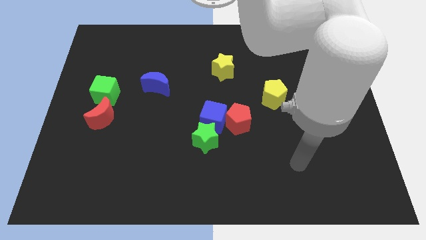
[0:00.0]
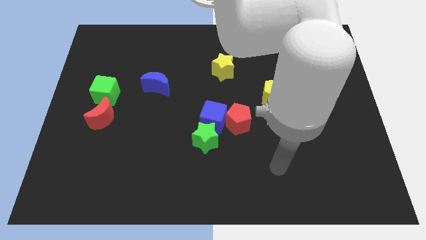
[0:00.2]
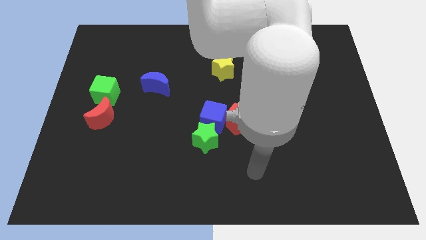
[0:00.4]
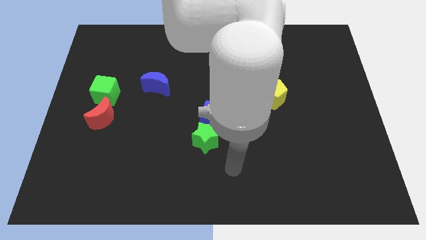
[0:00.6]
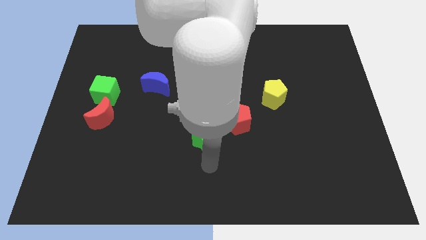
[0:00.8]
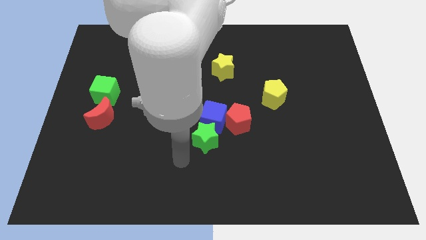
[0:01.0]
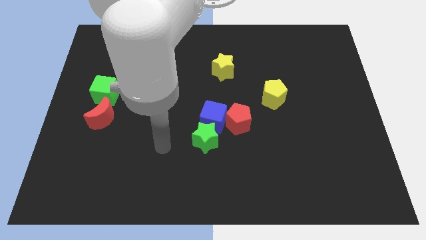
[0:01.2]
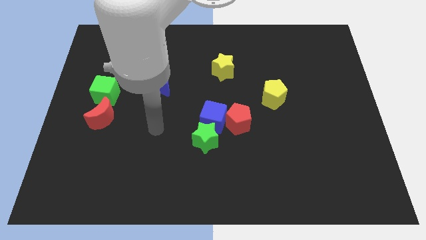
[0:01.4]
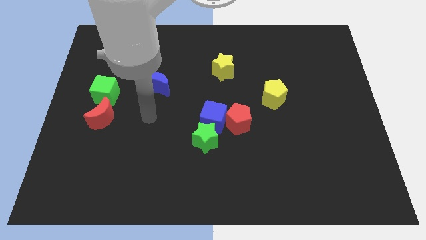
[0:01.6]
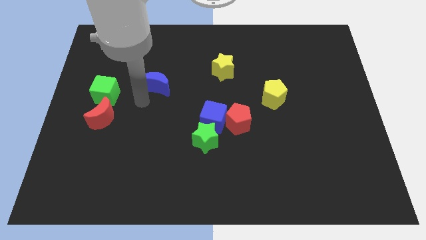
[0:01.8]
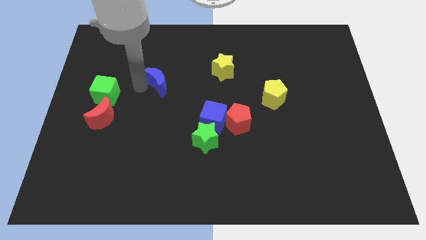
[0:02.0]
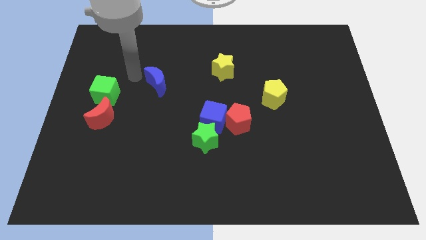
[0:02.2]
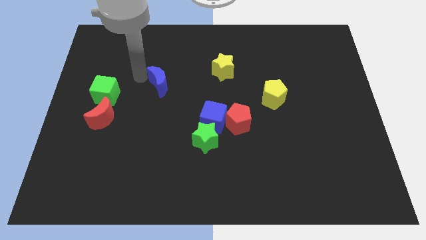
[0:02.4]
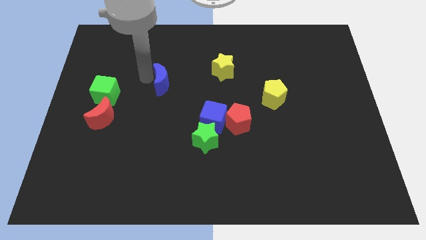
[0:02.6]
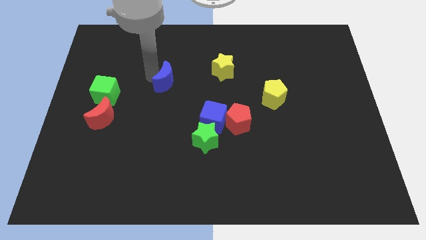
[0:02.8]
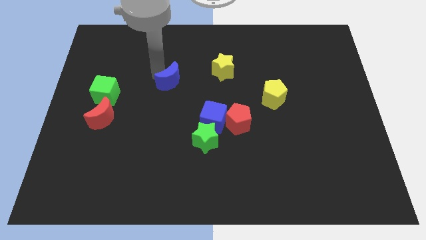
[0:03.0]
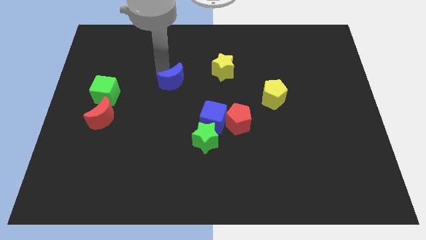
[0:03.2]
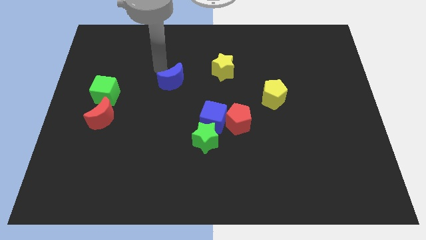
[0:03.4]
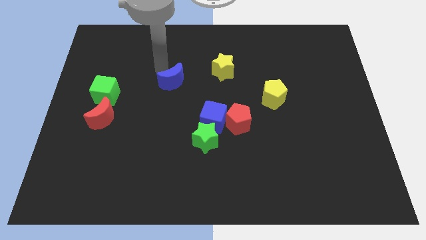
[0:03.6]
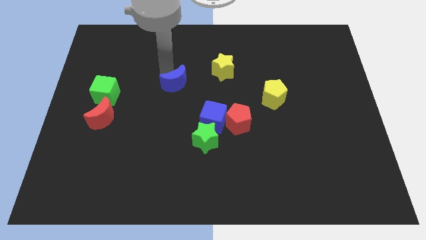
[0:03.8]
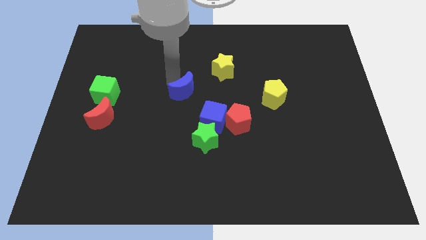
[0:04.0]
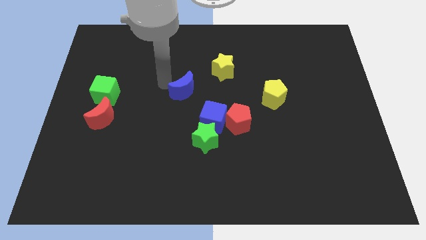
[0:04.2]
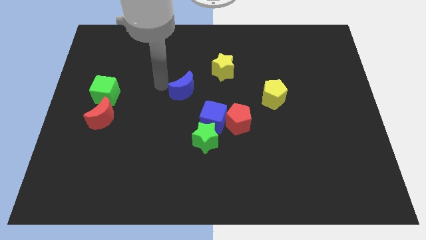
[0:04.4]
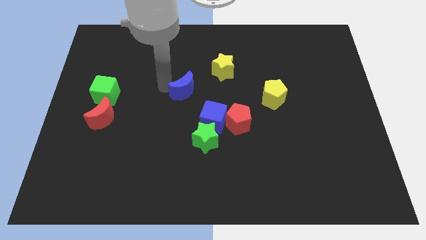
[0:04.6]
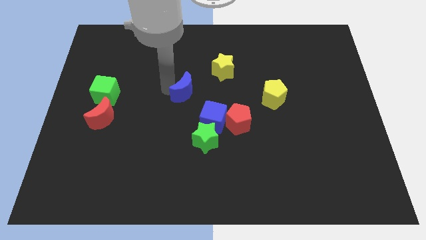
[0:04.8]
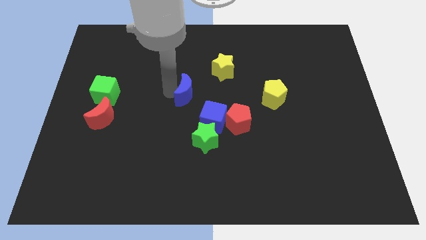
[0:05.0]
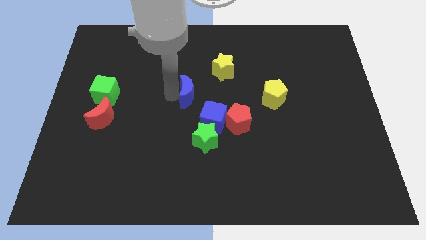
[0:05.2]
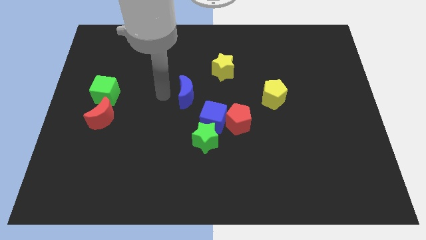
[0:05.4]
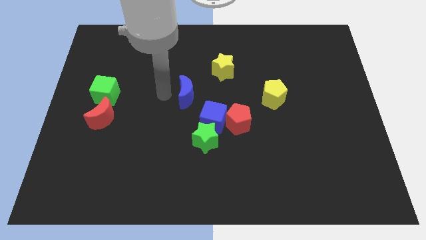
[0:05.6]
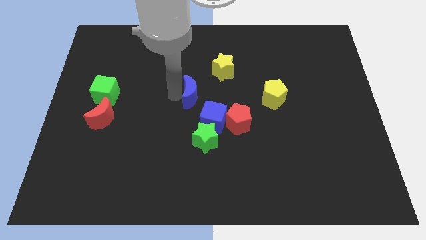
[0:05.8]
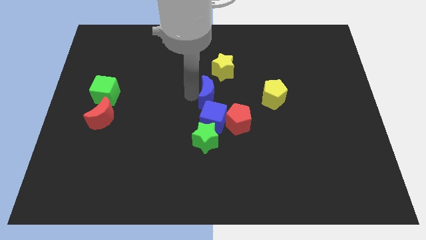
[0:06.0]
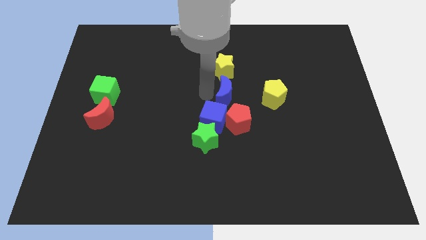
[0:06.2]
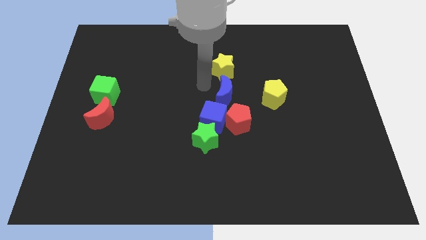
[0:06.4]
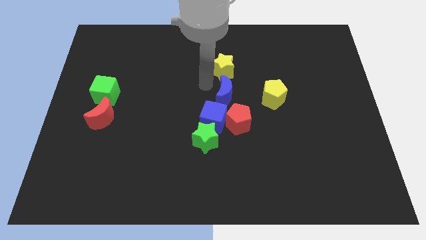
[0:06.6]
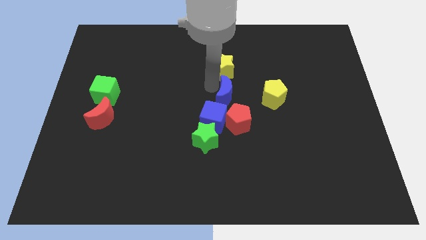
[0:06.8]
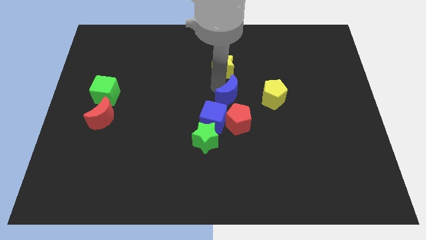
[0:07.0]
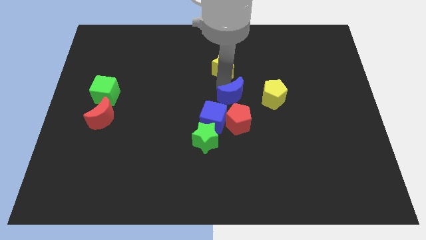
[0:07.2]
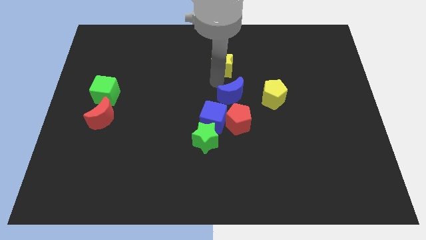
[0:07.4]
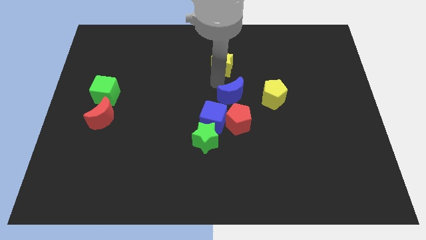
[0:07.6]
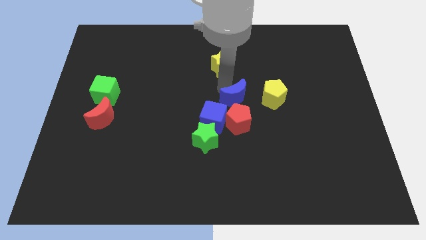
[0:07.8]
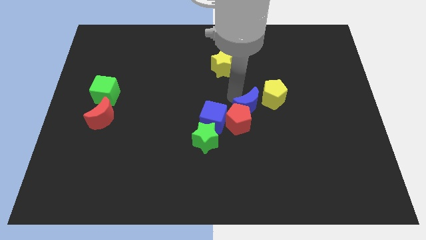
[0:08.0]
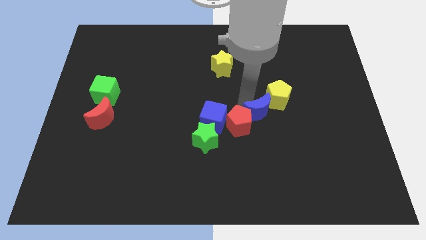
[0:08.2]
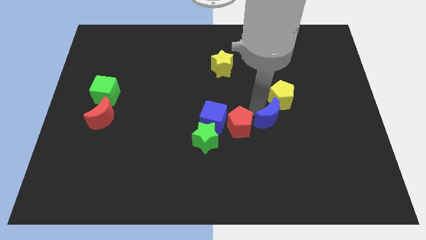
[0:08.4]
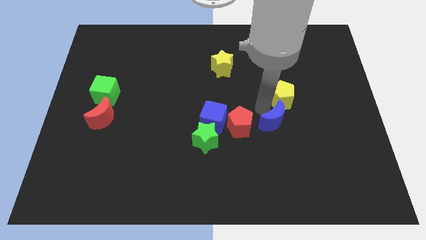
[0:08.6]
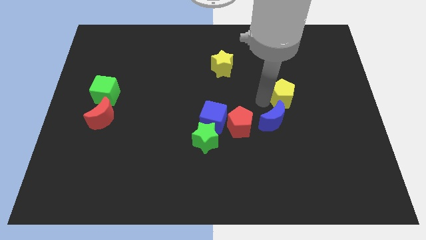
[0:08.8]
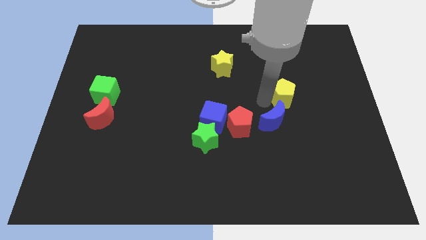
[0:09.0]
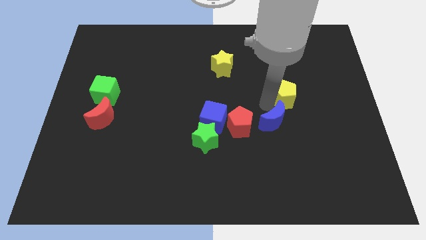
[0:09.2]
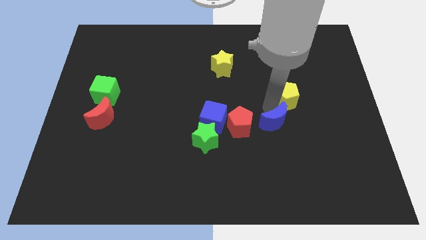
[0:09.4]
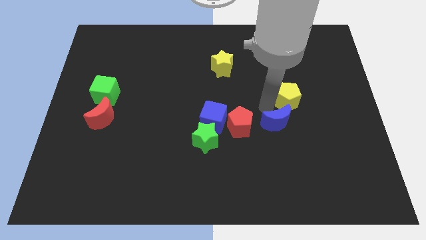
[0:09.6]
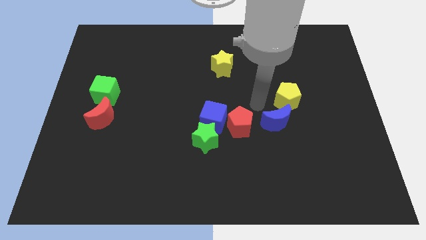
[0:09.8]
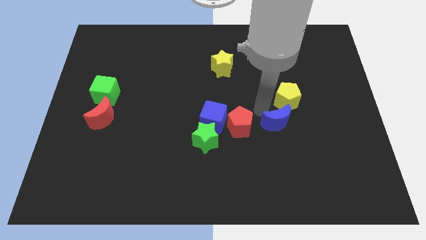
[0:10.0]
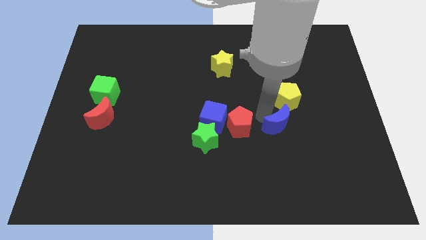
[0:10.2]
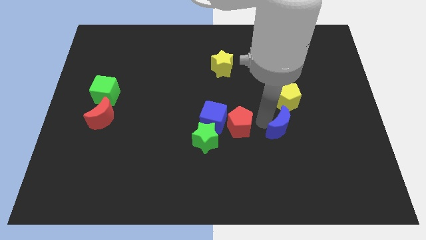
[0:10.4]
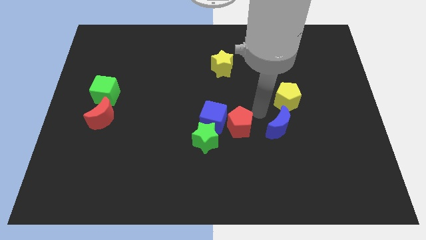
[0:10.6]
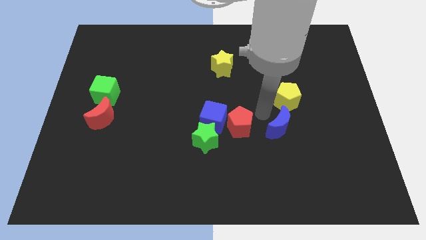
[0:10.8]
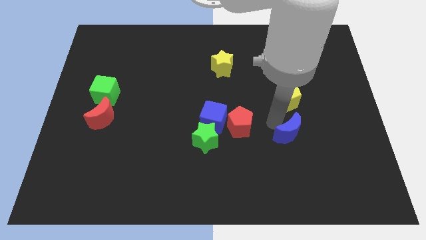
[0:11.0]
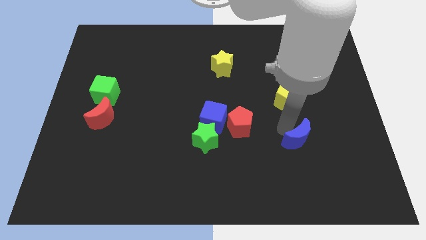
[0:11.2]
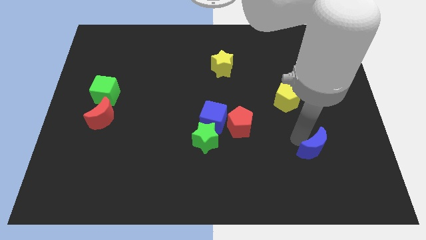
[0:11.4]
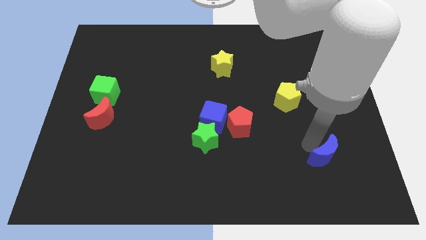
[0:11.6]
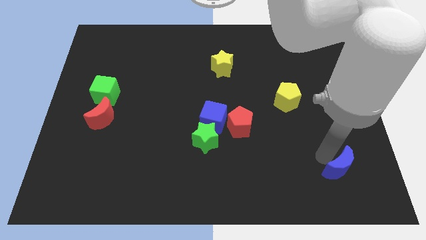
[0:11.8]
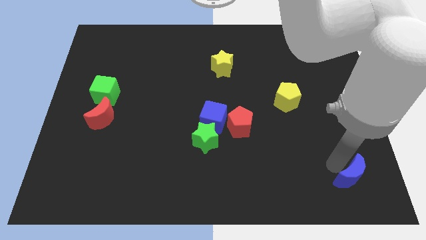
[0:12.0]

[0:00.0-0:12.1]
push the blue moon to the bottom right

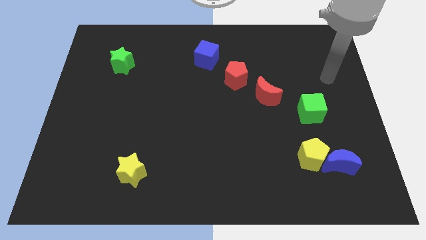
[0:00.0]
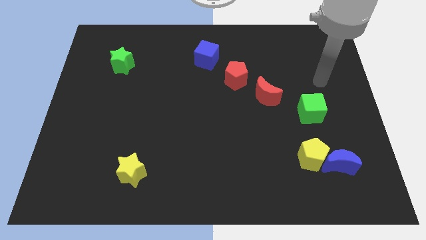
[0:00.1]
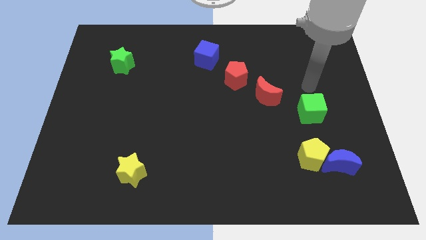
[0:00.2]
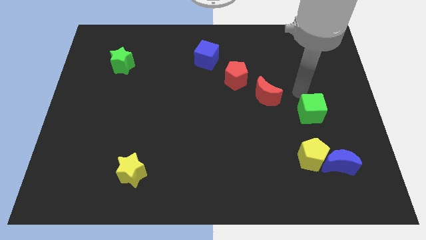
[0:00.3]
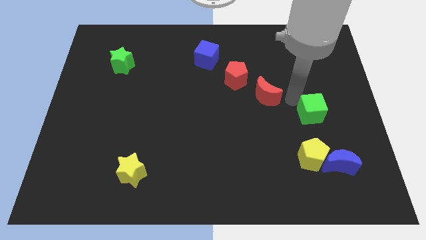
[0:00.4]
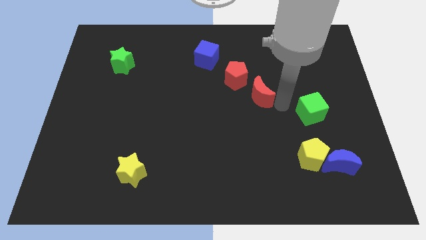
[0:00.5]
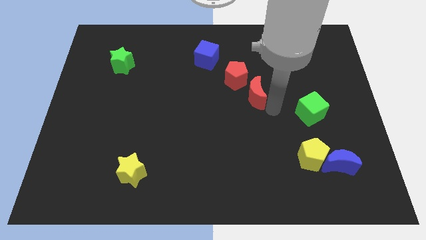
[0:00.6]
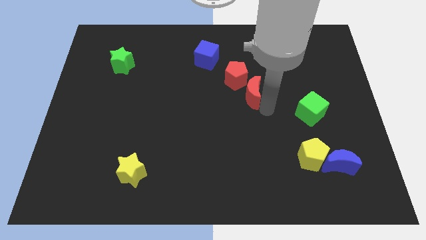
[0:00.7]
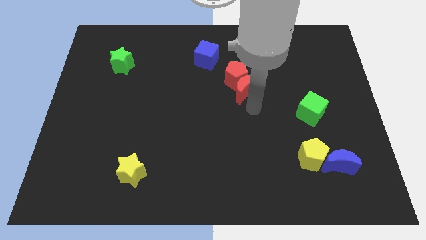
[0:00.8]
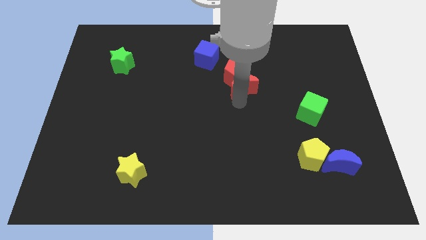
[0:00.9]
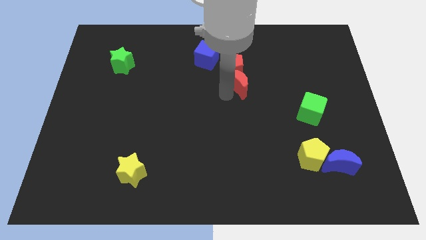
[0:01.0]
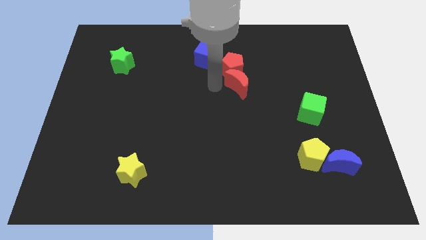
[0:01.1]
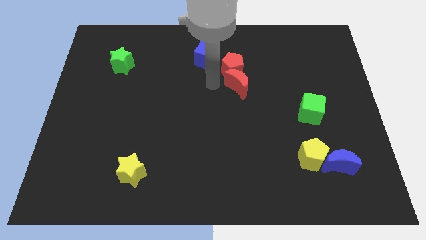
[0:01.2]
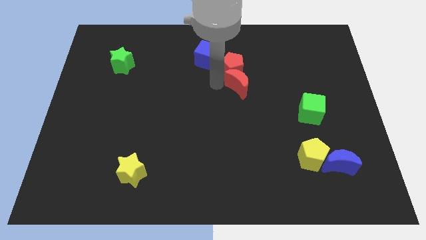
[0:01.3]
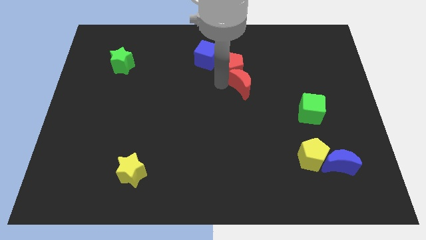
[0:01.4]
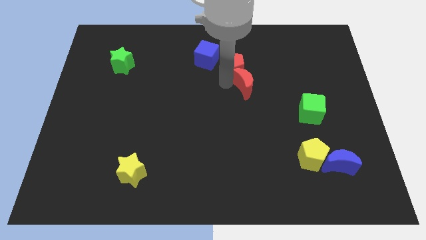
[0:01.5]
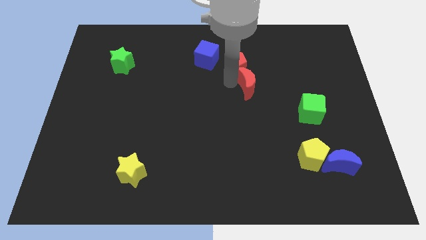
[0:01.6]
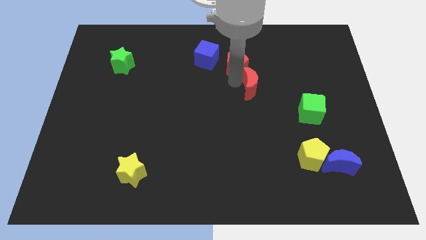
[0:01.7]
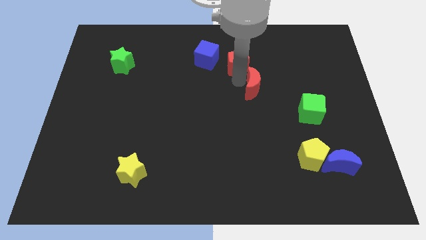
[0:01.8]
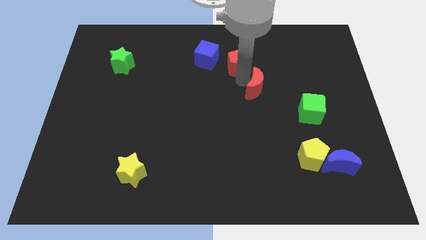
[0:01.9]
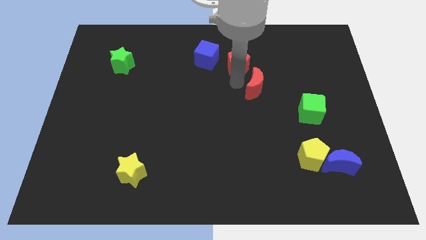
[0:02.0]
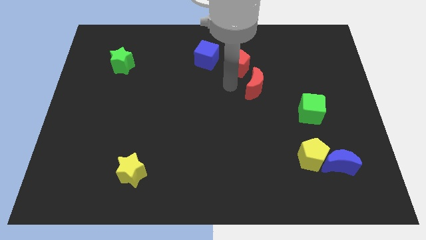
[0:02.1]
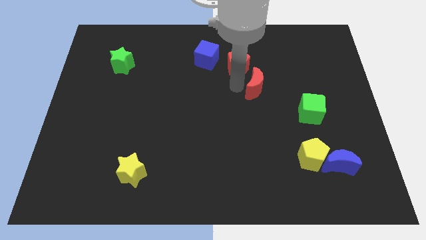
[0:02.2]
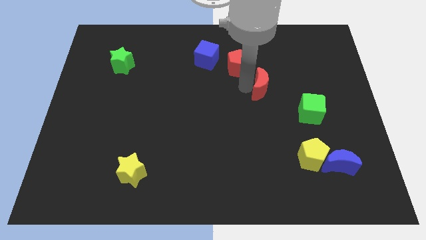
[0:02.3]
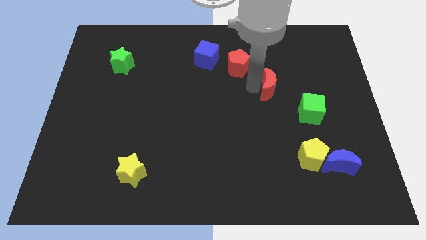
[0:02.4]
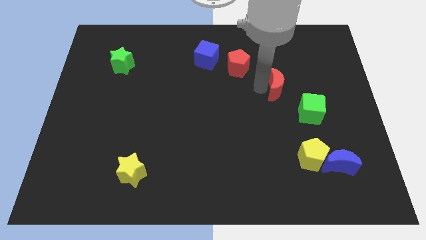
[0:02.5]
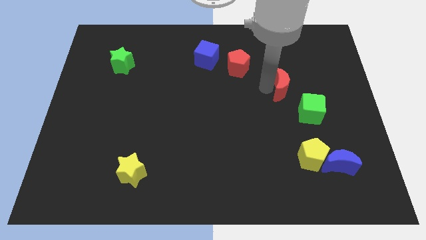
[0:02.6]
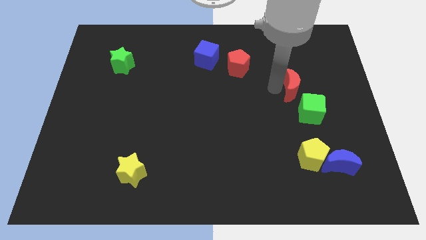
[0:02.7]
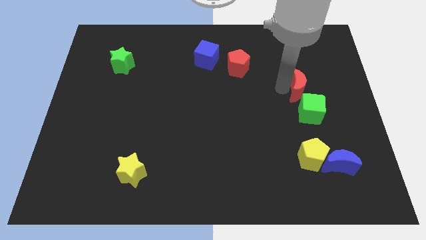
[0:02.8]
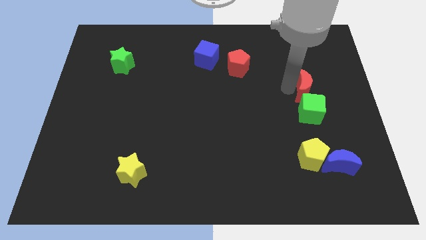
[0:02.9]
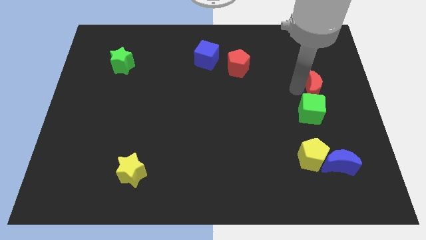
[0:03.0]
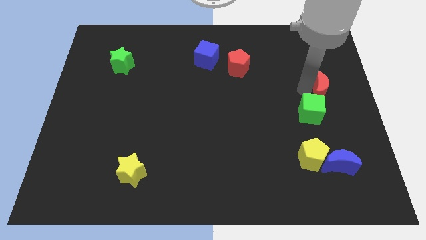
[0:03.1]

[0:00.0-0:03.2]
put the red moon to the center right
